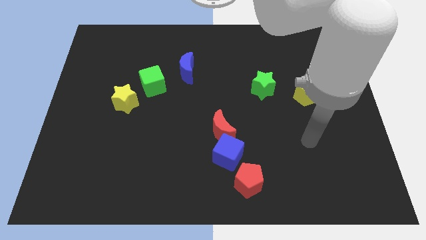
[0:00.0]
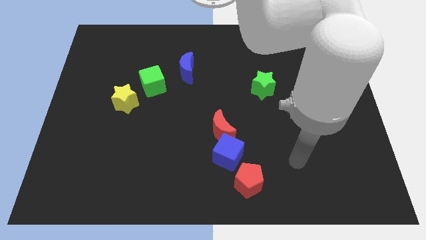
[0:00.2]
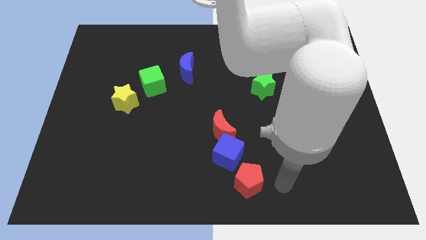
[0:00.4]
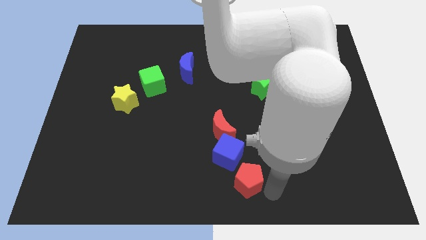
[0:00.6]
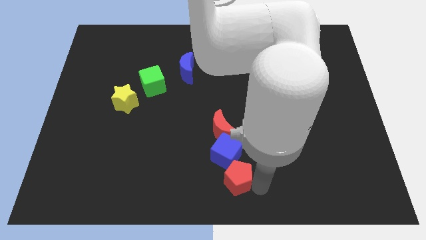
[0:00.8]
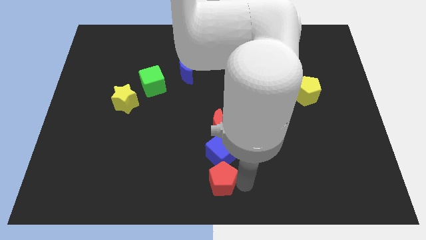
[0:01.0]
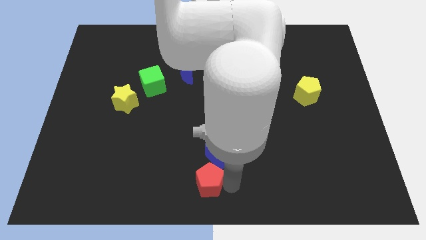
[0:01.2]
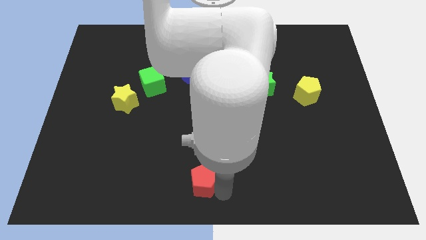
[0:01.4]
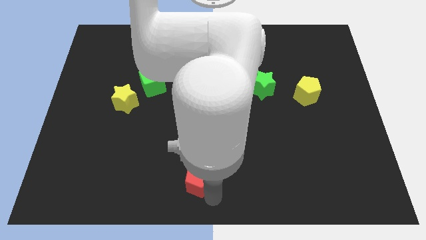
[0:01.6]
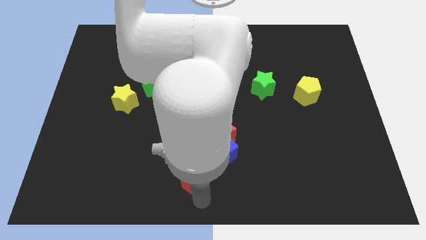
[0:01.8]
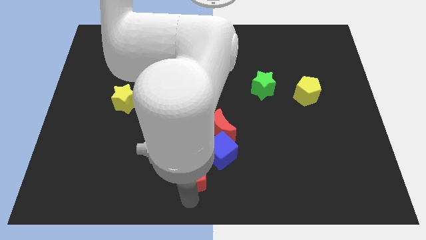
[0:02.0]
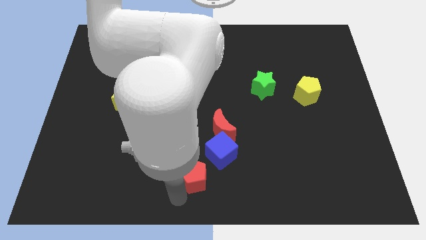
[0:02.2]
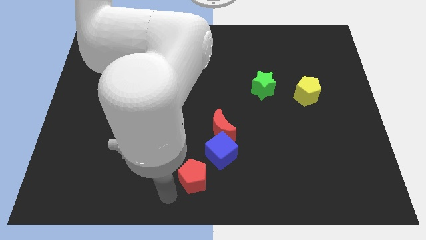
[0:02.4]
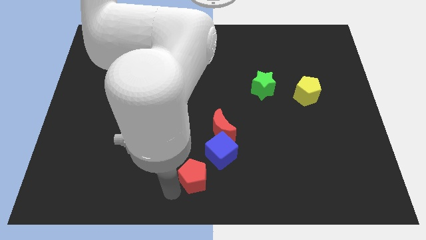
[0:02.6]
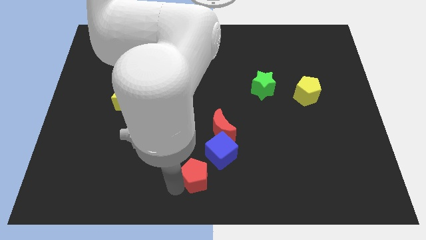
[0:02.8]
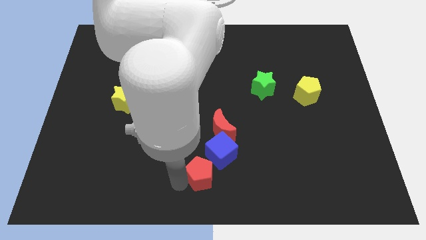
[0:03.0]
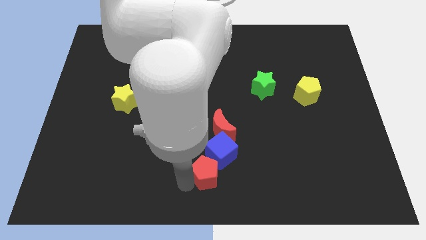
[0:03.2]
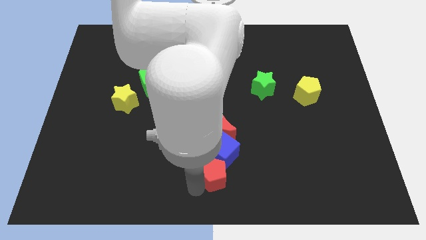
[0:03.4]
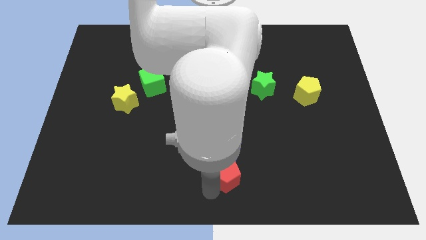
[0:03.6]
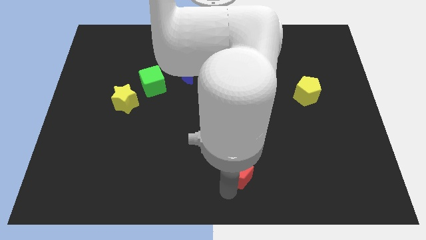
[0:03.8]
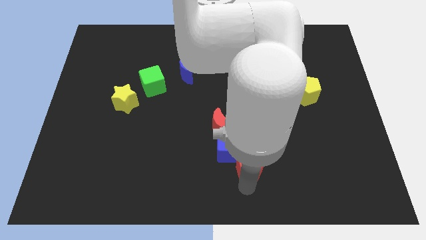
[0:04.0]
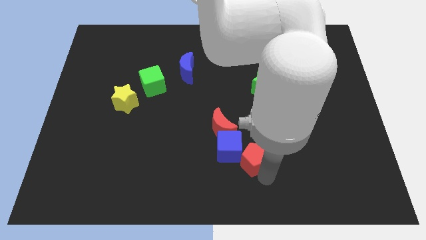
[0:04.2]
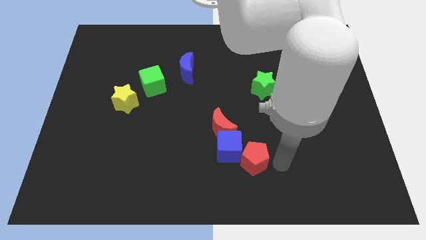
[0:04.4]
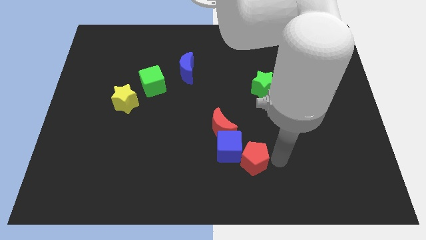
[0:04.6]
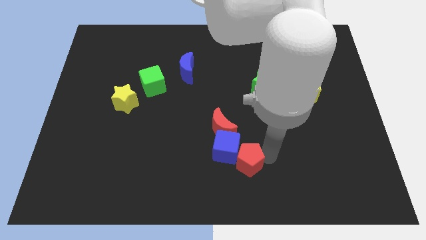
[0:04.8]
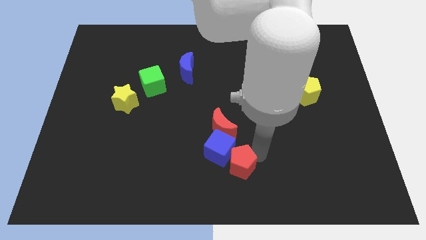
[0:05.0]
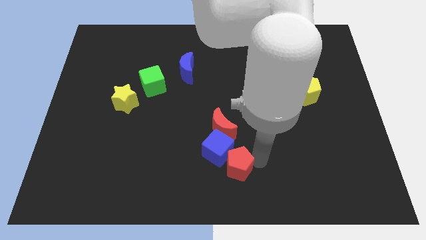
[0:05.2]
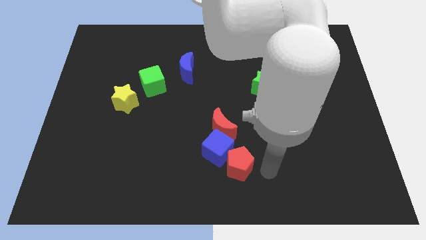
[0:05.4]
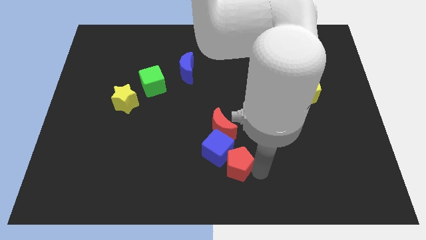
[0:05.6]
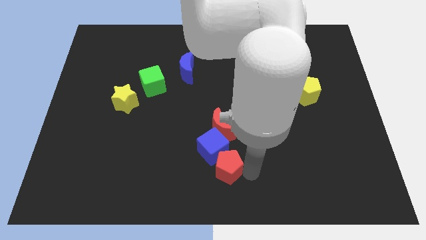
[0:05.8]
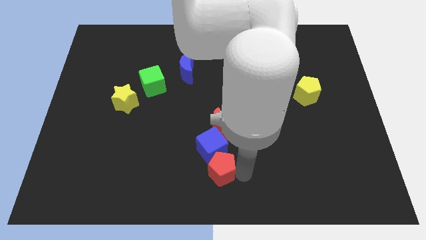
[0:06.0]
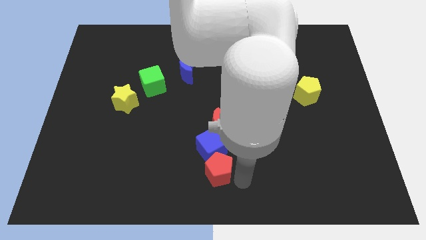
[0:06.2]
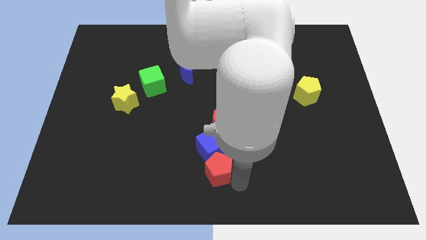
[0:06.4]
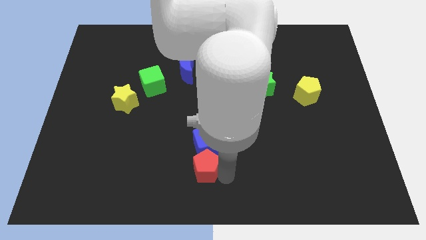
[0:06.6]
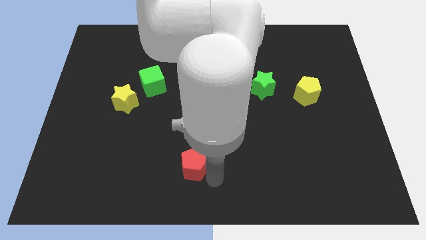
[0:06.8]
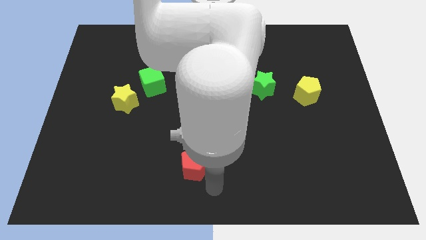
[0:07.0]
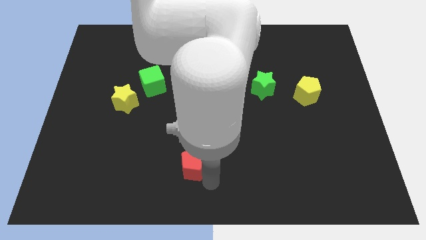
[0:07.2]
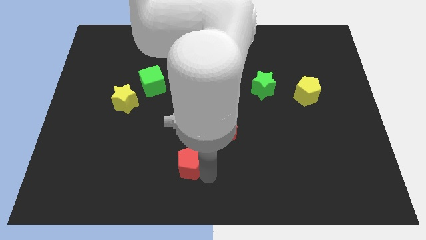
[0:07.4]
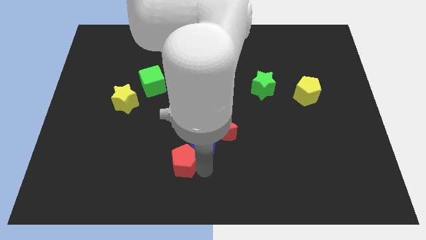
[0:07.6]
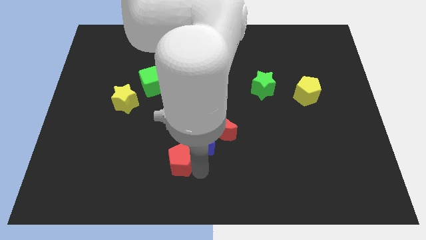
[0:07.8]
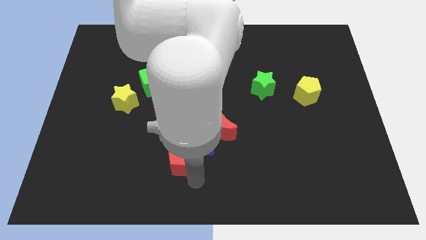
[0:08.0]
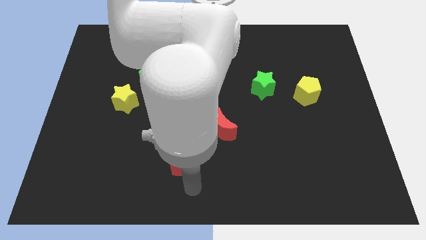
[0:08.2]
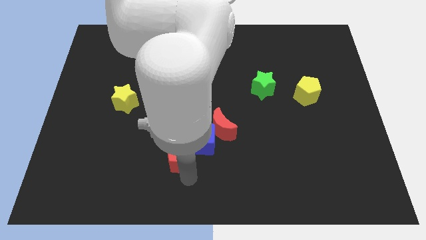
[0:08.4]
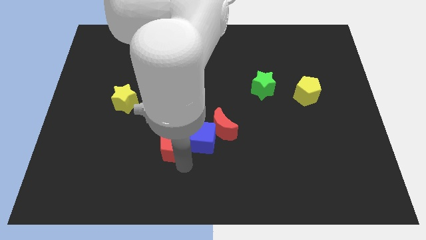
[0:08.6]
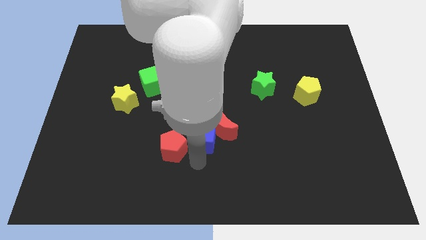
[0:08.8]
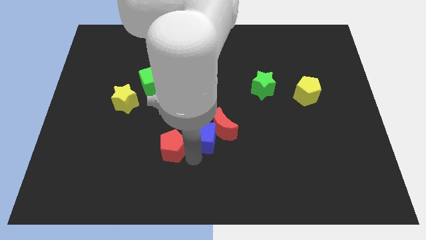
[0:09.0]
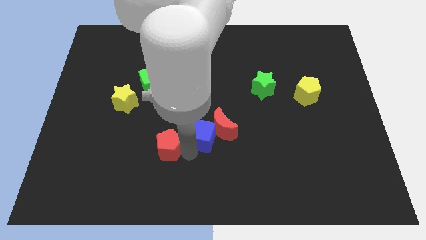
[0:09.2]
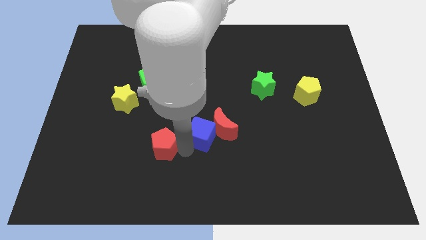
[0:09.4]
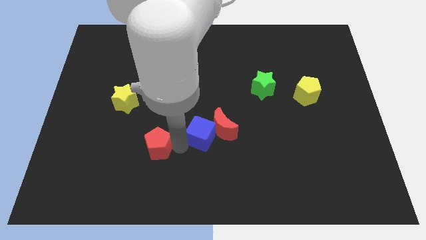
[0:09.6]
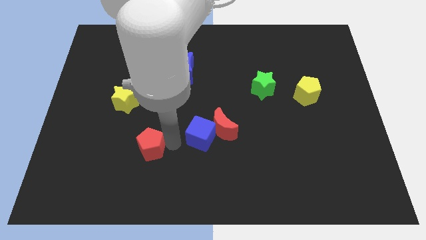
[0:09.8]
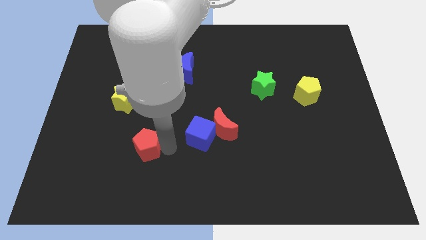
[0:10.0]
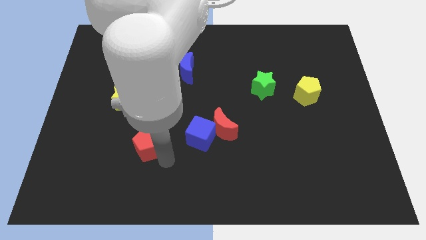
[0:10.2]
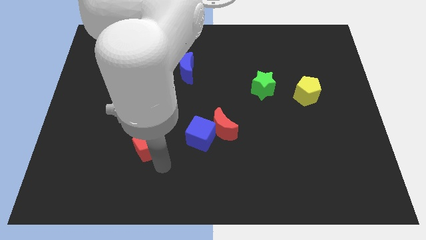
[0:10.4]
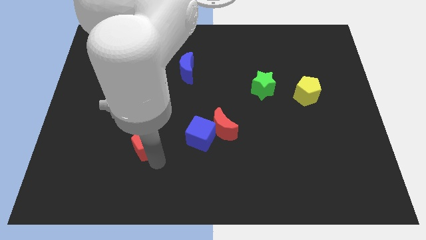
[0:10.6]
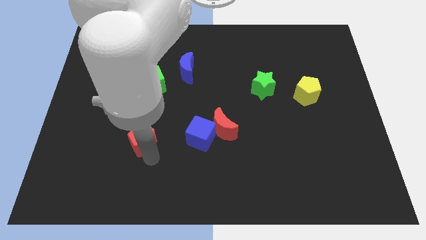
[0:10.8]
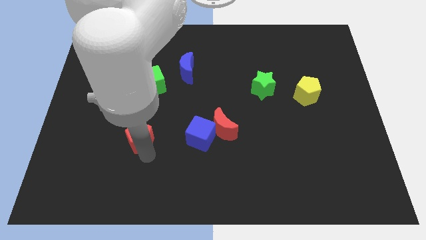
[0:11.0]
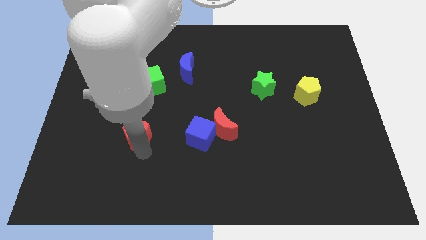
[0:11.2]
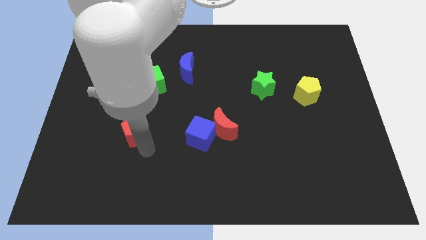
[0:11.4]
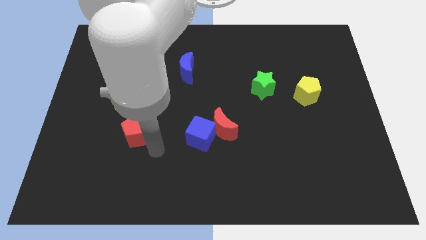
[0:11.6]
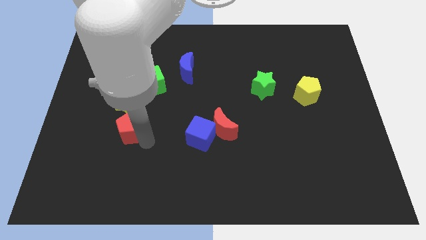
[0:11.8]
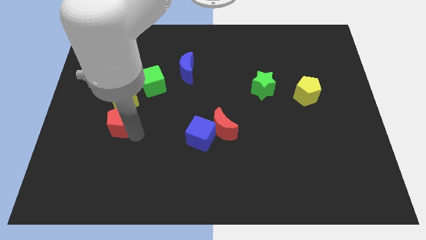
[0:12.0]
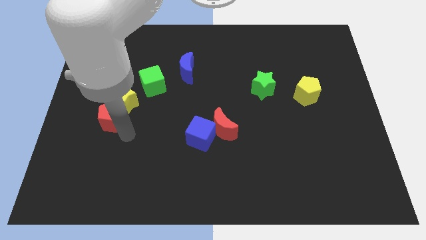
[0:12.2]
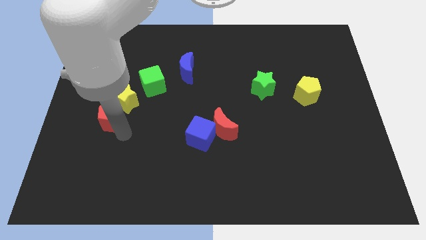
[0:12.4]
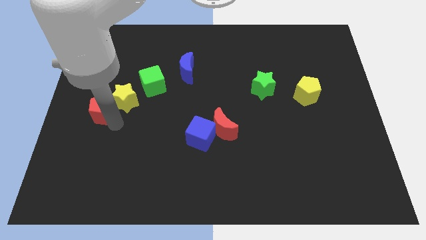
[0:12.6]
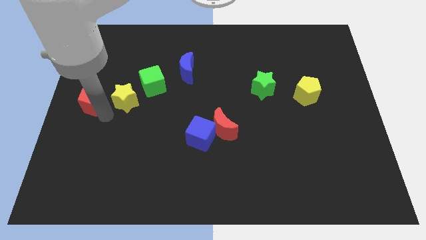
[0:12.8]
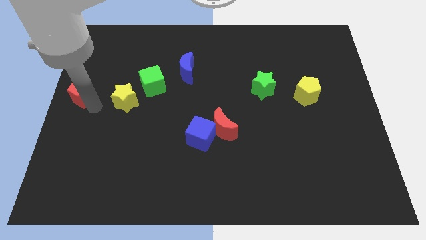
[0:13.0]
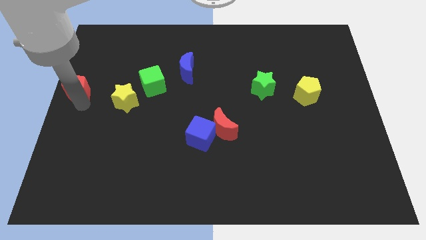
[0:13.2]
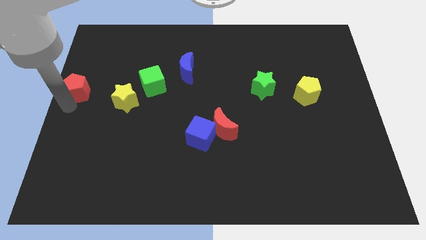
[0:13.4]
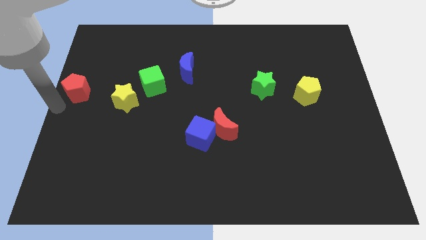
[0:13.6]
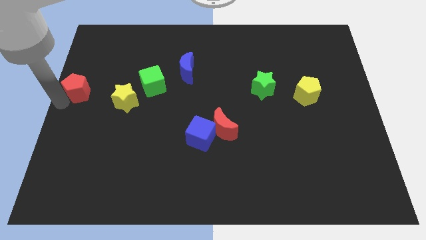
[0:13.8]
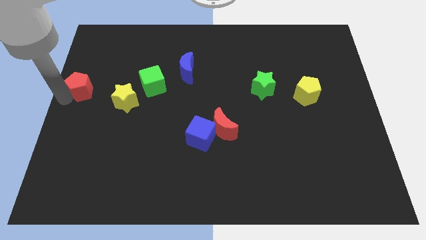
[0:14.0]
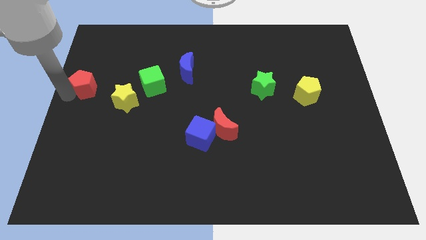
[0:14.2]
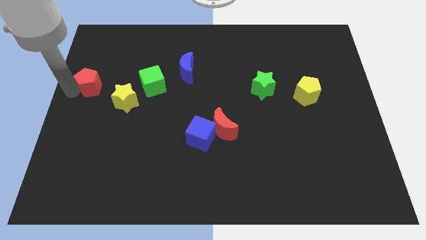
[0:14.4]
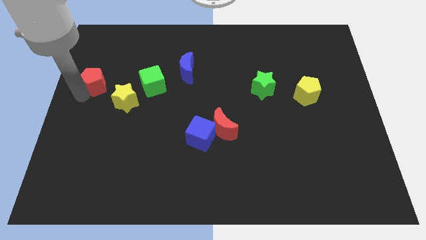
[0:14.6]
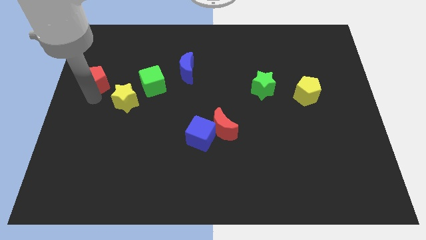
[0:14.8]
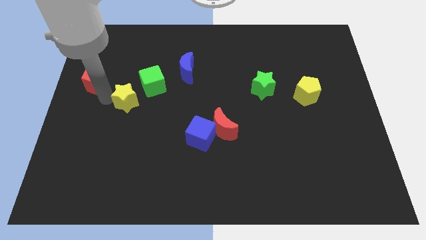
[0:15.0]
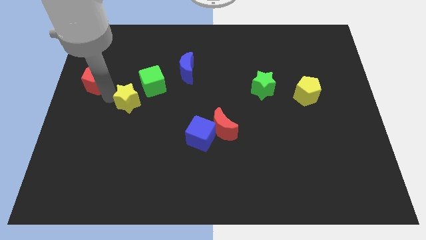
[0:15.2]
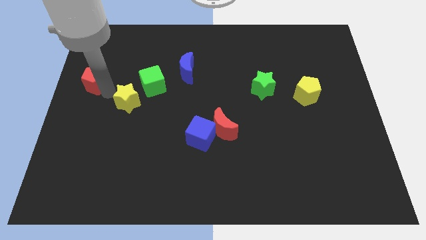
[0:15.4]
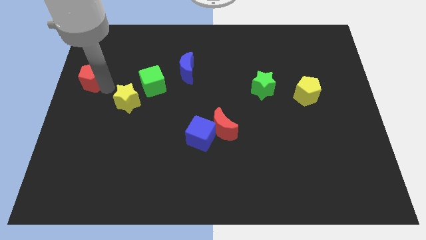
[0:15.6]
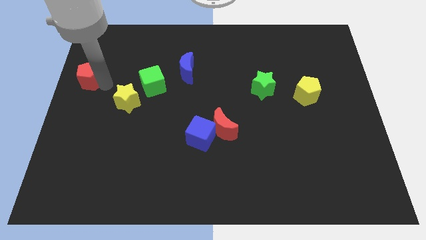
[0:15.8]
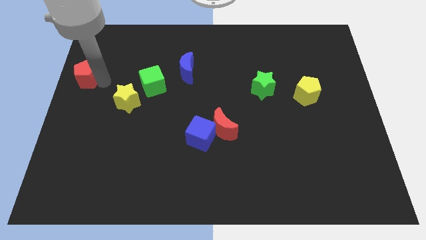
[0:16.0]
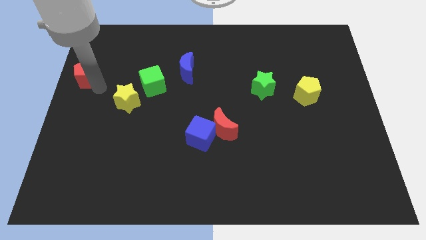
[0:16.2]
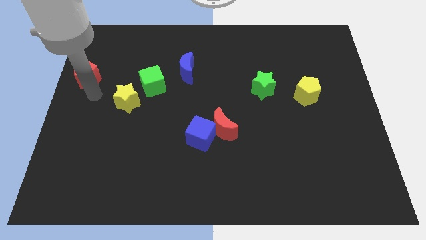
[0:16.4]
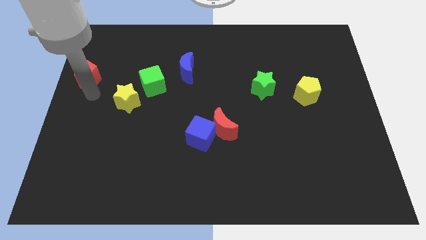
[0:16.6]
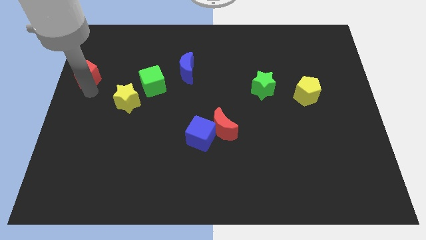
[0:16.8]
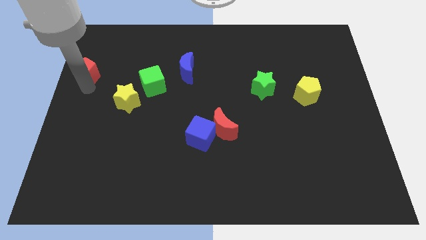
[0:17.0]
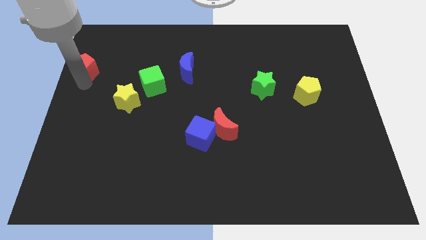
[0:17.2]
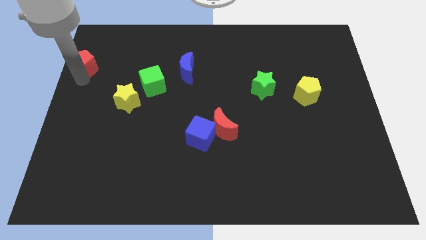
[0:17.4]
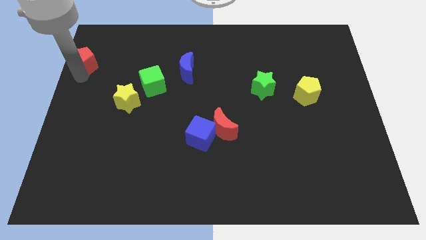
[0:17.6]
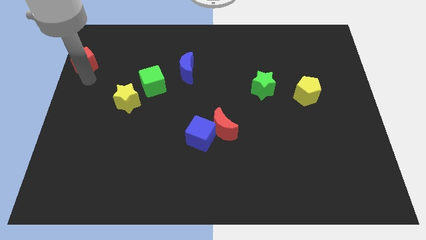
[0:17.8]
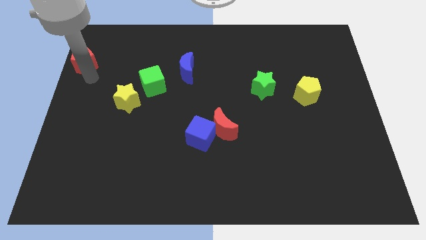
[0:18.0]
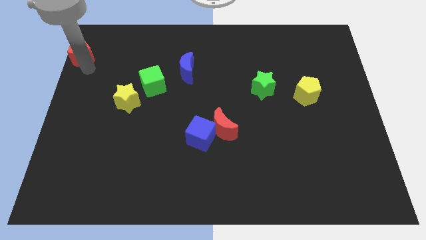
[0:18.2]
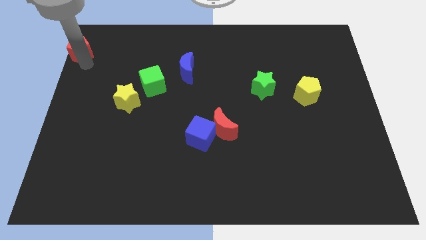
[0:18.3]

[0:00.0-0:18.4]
slide the red pentagon to the upper left corner
